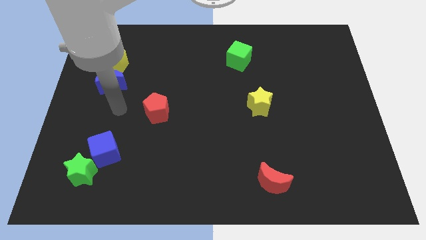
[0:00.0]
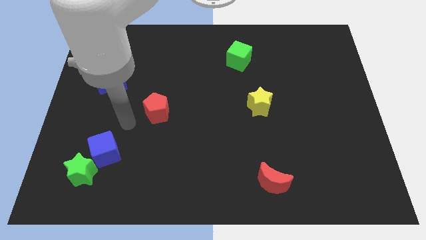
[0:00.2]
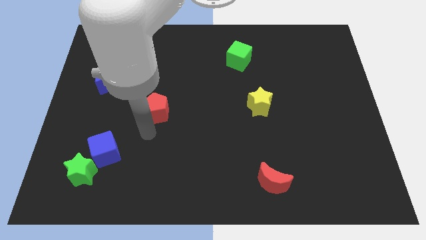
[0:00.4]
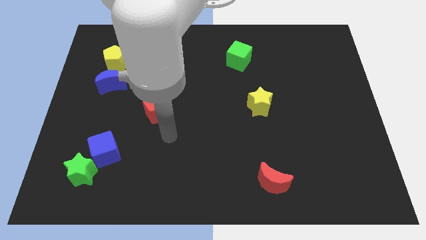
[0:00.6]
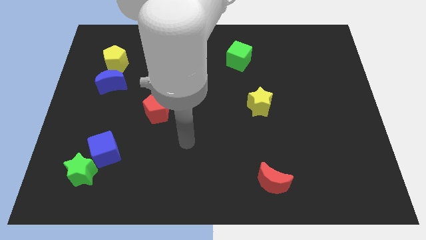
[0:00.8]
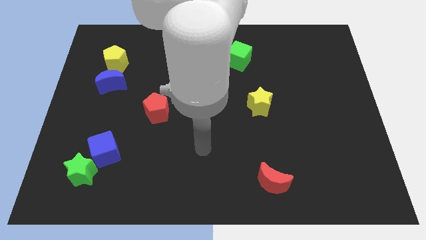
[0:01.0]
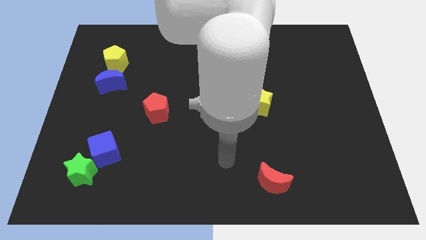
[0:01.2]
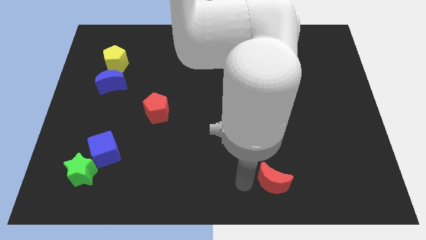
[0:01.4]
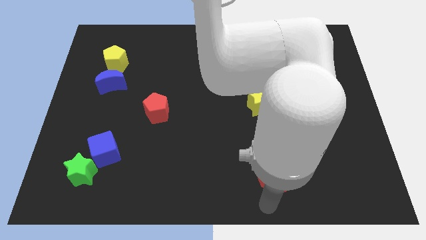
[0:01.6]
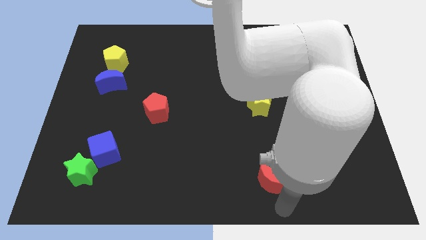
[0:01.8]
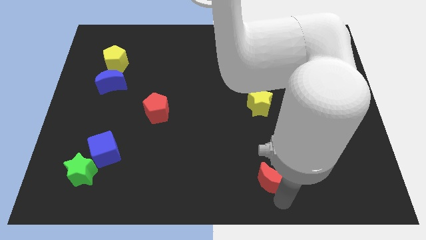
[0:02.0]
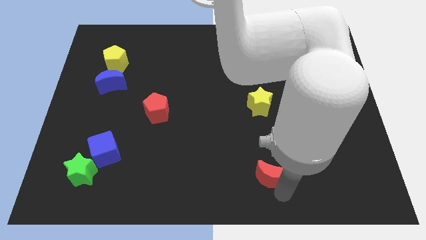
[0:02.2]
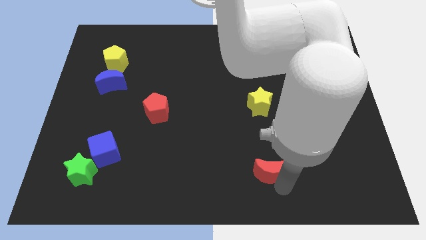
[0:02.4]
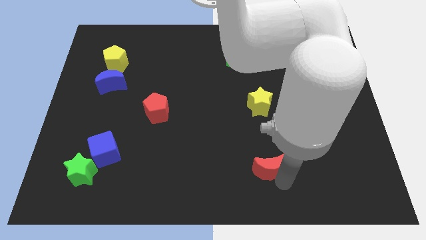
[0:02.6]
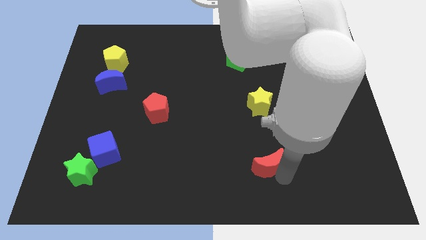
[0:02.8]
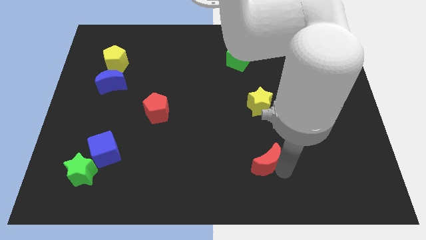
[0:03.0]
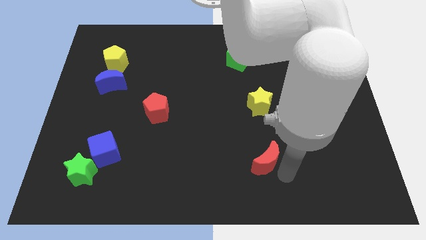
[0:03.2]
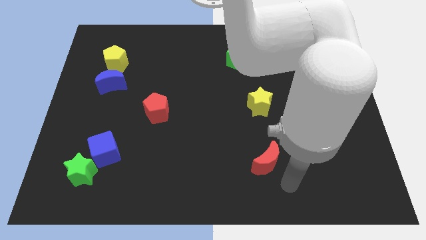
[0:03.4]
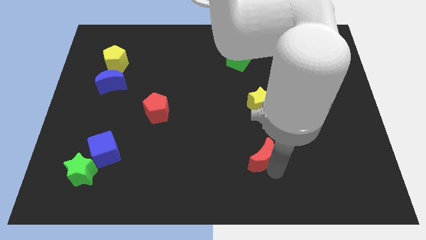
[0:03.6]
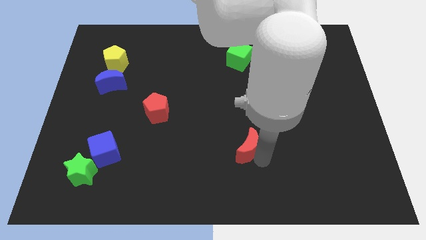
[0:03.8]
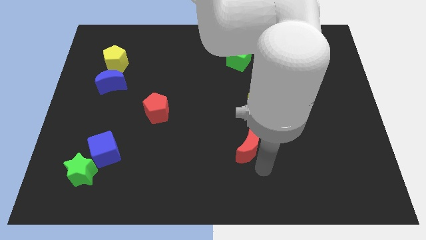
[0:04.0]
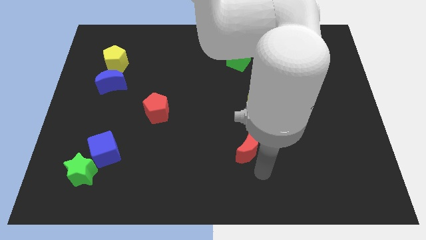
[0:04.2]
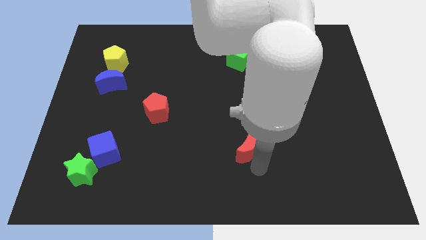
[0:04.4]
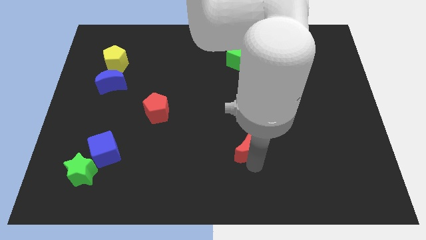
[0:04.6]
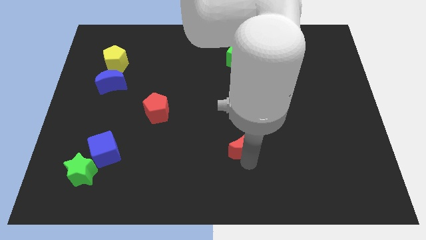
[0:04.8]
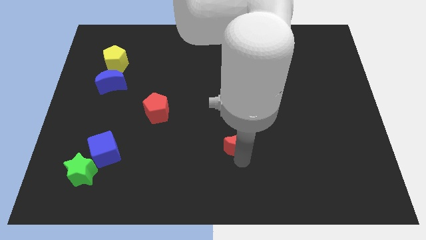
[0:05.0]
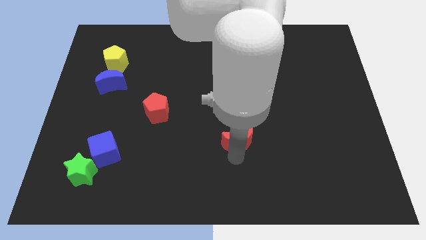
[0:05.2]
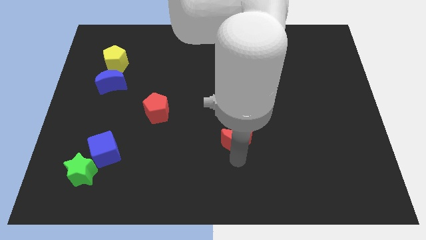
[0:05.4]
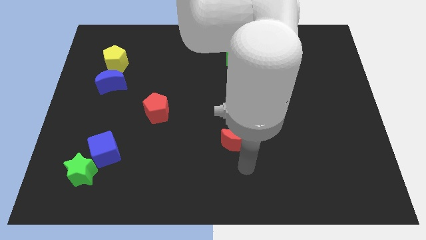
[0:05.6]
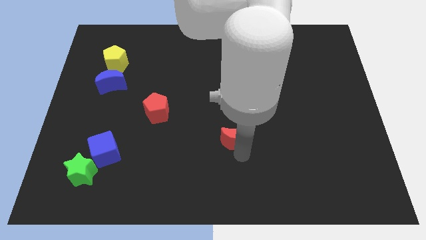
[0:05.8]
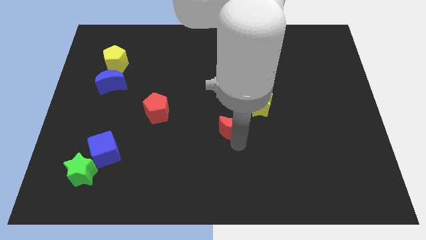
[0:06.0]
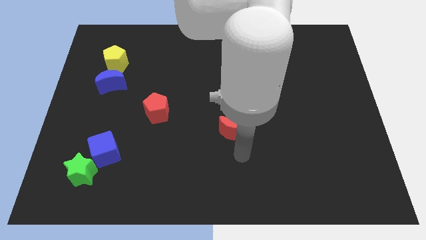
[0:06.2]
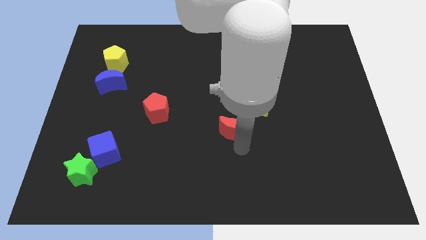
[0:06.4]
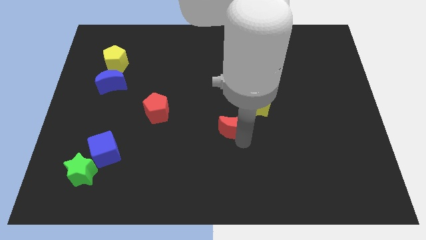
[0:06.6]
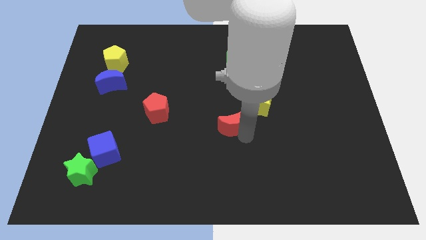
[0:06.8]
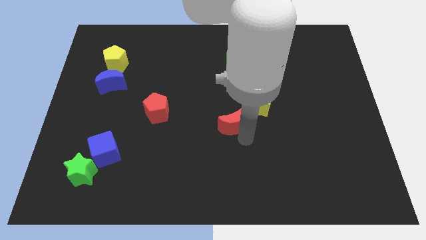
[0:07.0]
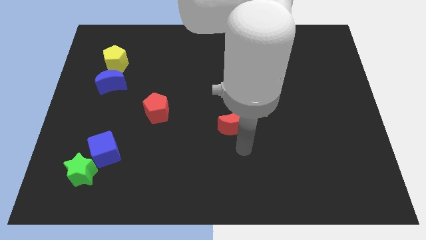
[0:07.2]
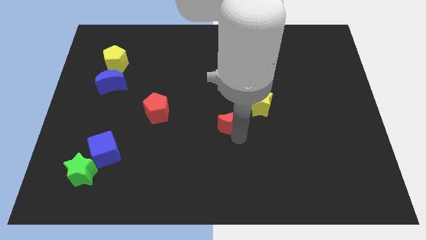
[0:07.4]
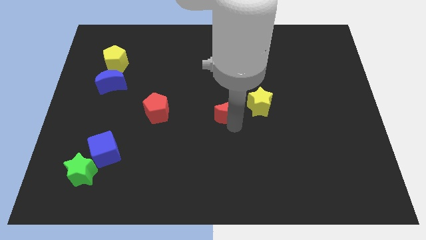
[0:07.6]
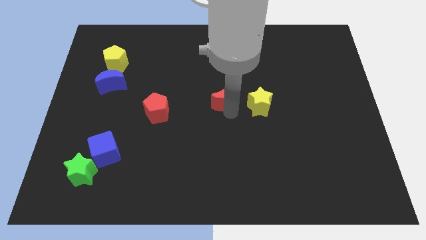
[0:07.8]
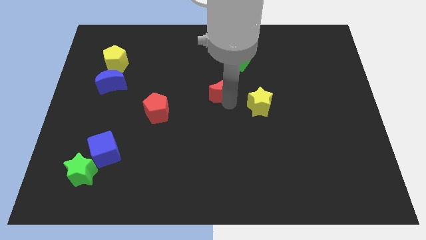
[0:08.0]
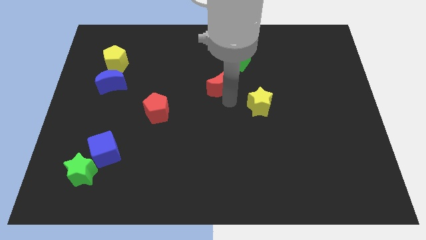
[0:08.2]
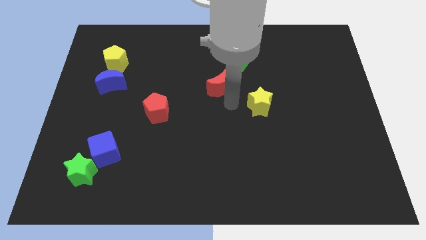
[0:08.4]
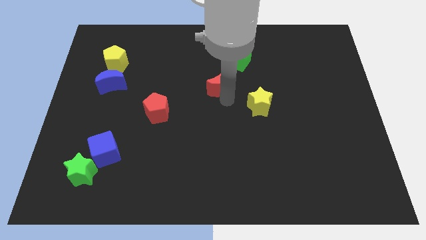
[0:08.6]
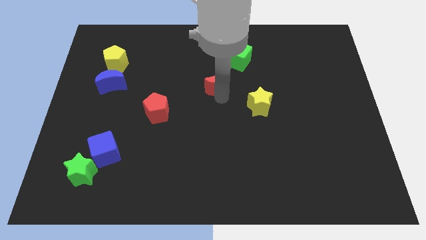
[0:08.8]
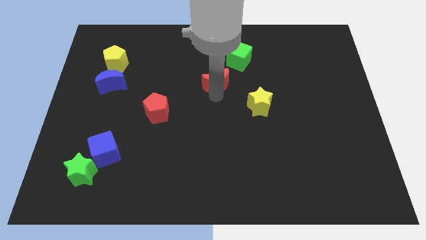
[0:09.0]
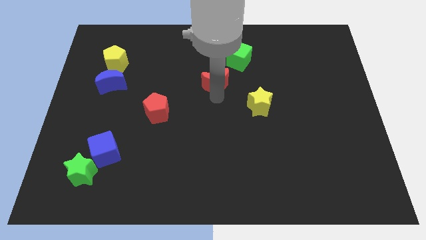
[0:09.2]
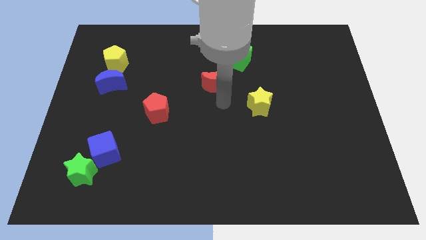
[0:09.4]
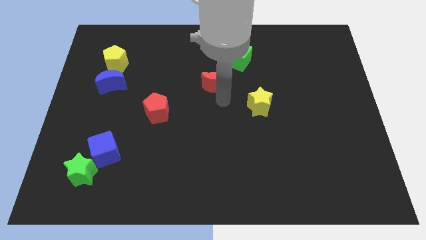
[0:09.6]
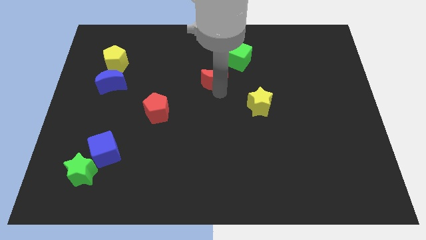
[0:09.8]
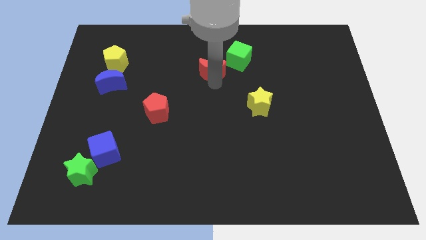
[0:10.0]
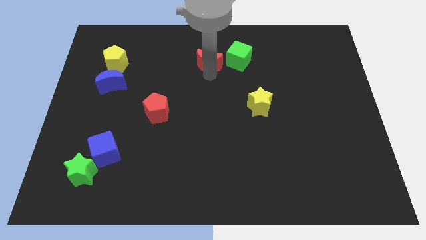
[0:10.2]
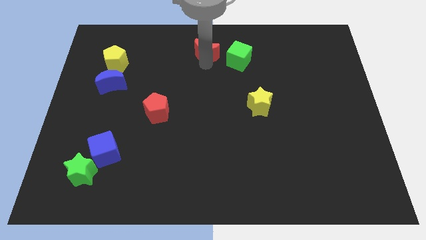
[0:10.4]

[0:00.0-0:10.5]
slide the red moon to the towards your base

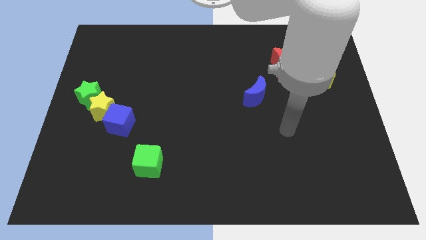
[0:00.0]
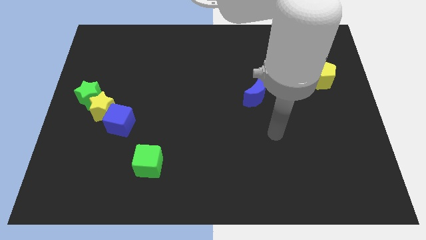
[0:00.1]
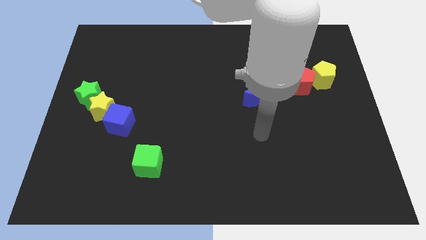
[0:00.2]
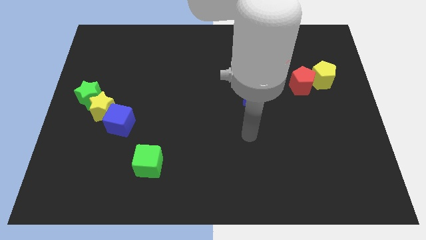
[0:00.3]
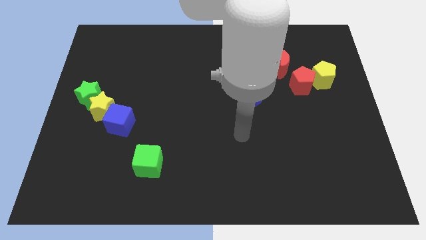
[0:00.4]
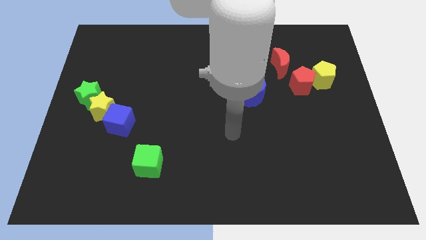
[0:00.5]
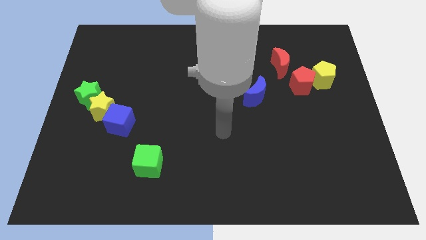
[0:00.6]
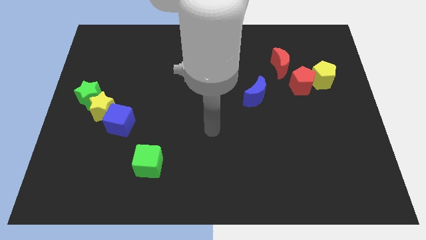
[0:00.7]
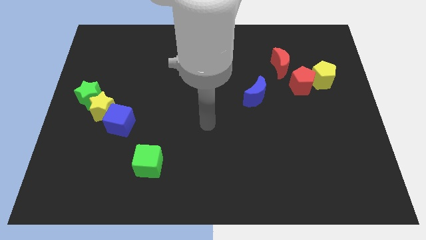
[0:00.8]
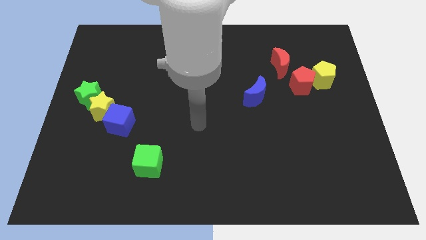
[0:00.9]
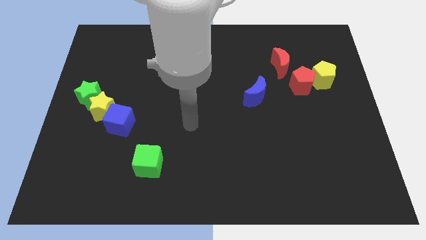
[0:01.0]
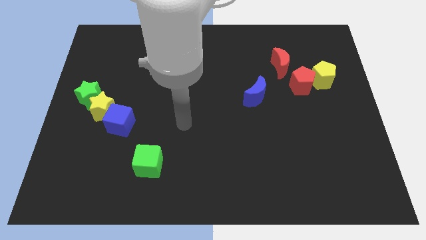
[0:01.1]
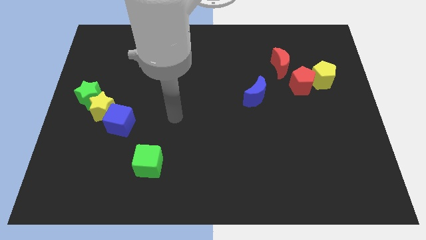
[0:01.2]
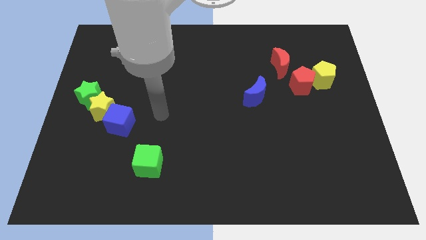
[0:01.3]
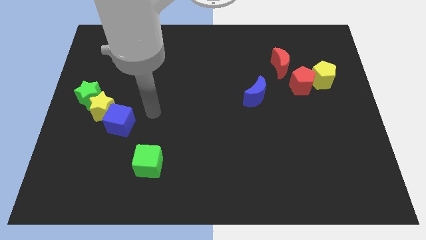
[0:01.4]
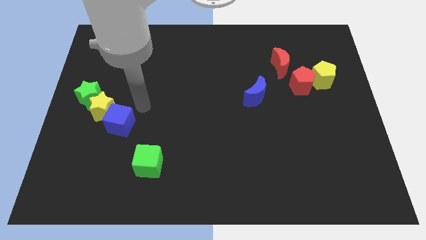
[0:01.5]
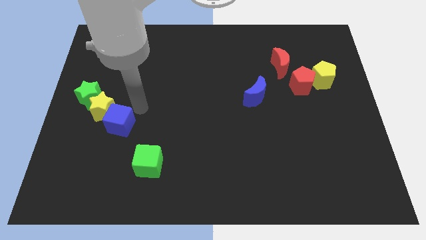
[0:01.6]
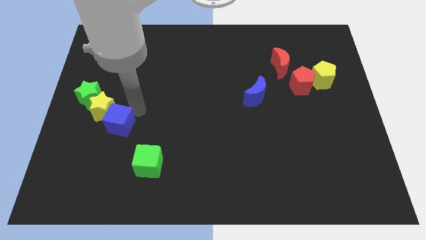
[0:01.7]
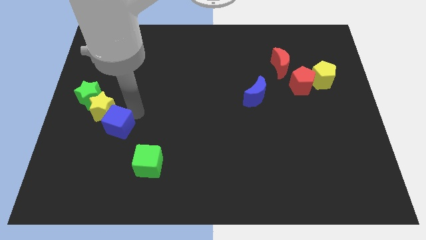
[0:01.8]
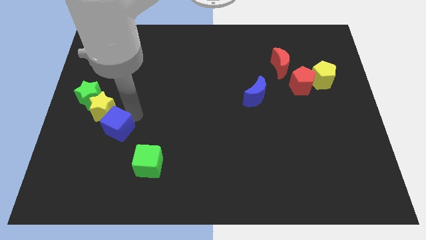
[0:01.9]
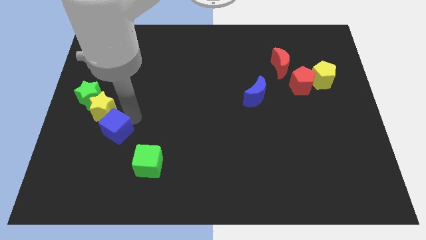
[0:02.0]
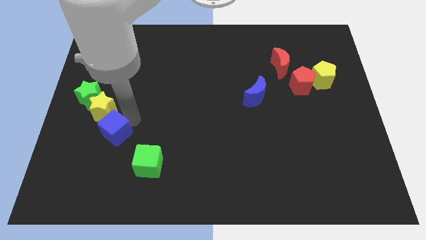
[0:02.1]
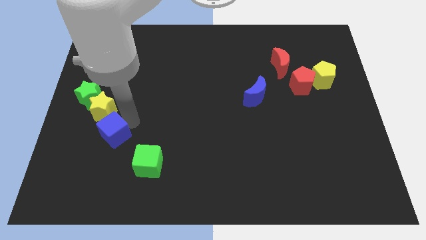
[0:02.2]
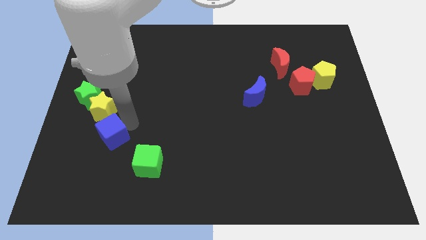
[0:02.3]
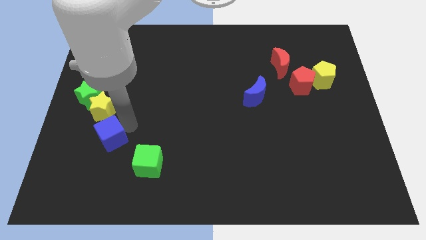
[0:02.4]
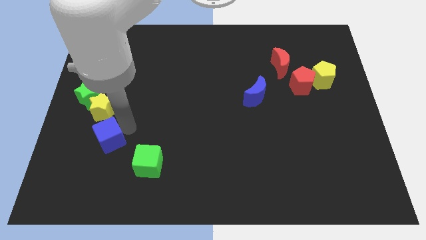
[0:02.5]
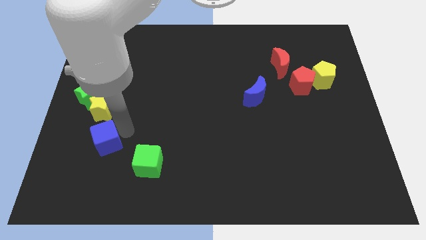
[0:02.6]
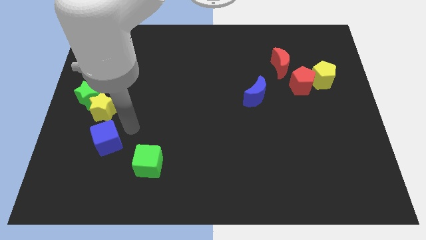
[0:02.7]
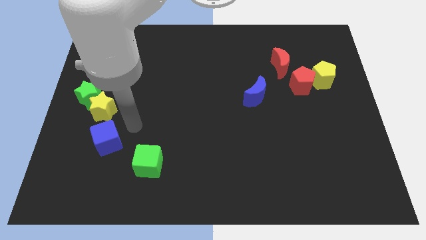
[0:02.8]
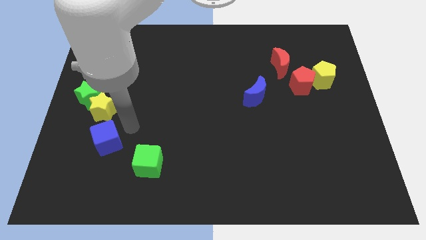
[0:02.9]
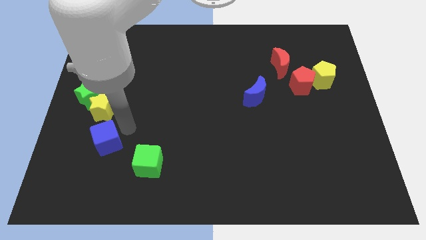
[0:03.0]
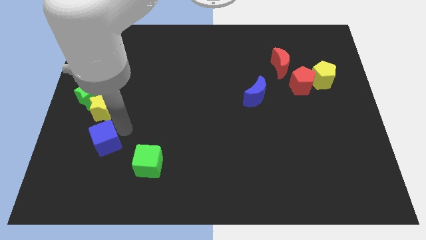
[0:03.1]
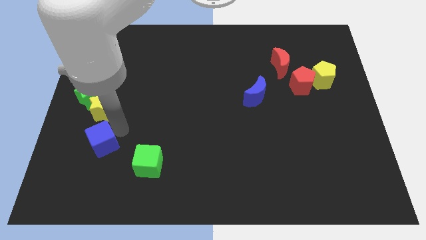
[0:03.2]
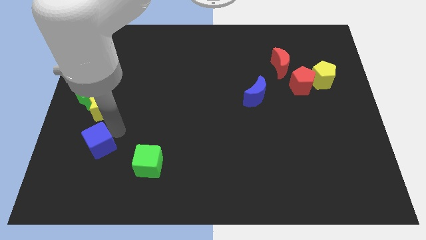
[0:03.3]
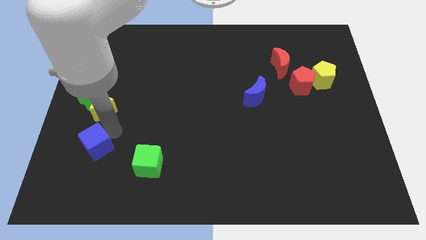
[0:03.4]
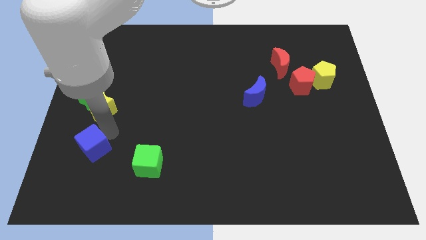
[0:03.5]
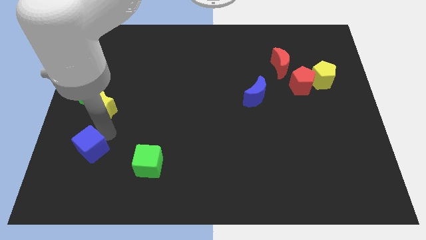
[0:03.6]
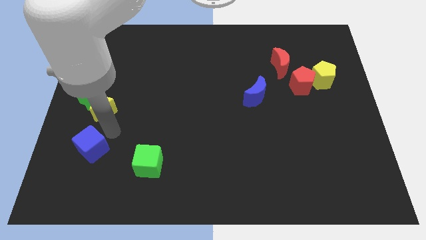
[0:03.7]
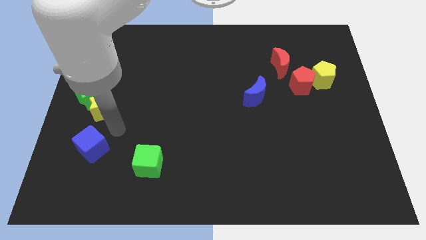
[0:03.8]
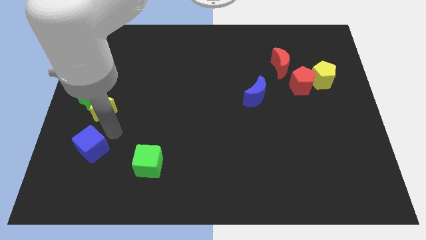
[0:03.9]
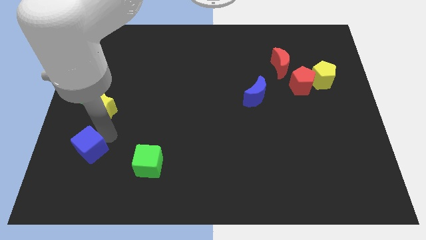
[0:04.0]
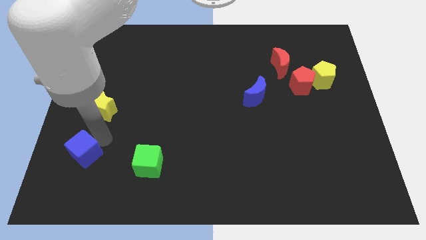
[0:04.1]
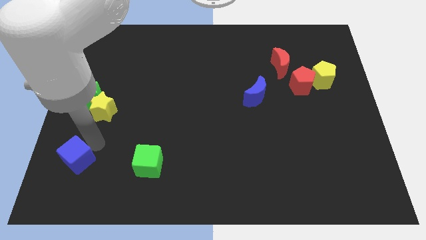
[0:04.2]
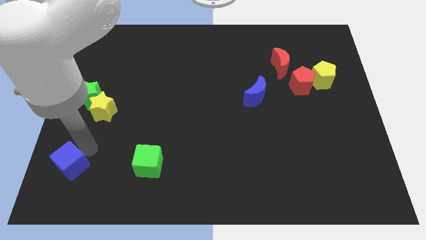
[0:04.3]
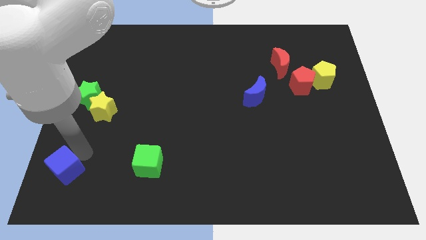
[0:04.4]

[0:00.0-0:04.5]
move the blue cube to the bottom left of the board
